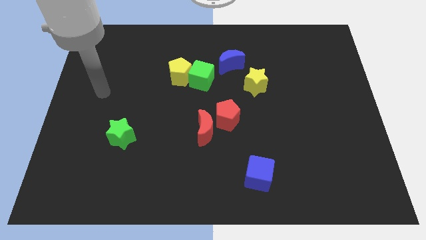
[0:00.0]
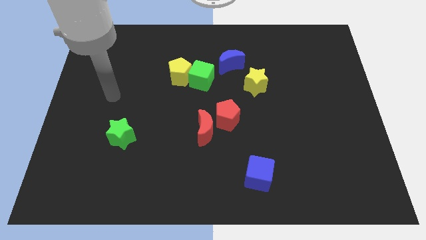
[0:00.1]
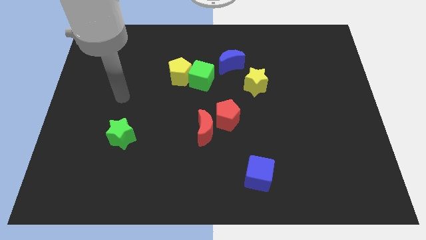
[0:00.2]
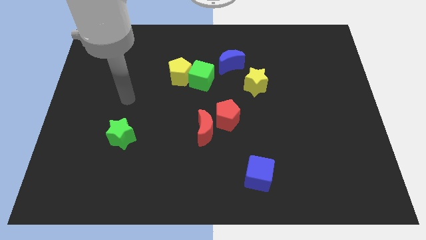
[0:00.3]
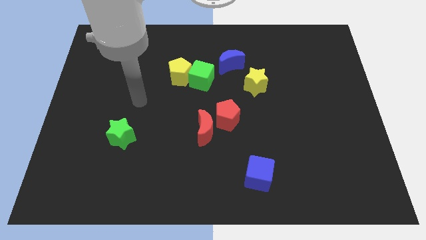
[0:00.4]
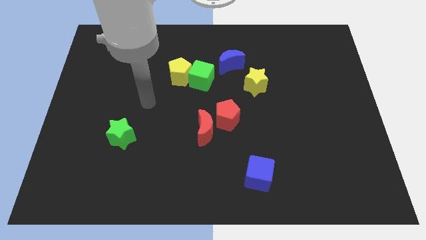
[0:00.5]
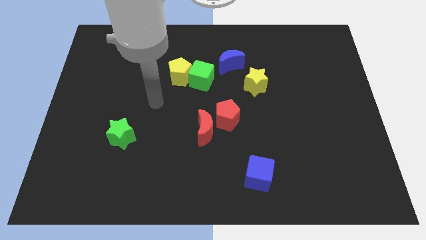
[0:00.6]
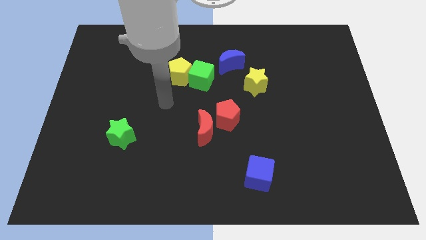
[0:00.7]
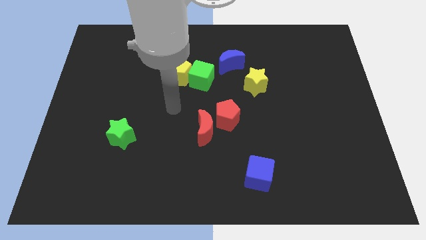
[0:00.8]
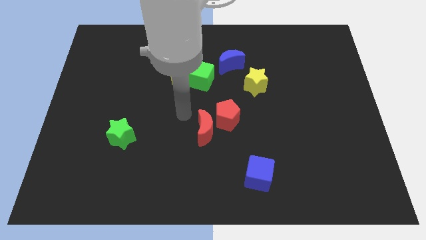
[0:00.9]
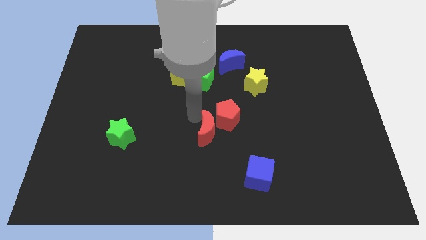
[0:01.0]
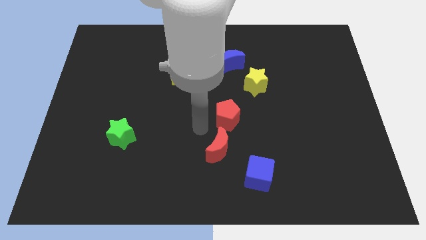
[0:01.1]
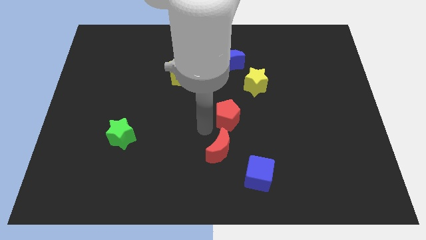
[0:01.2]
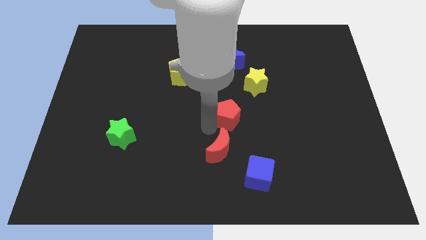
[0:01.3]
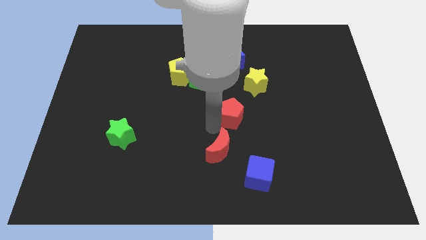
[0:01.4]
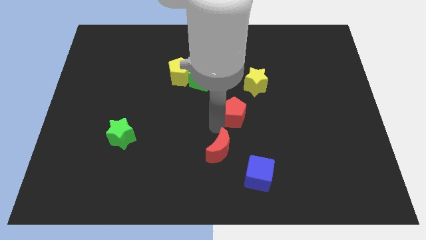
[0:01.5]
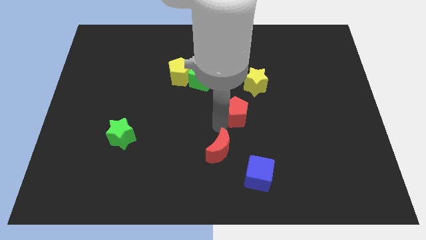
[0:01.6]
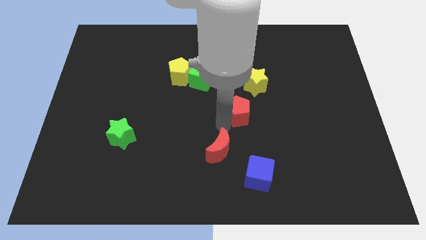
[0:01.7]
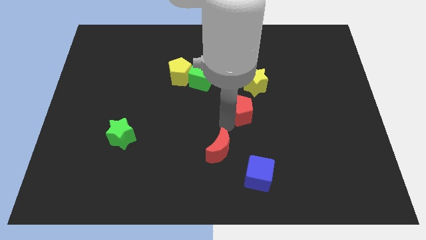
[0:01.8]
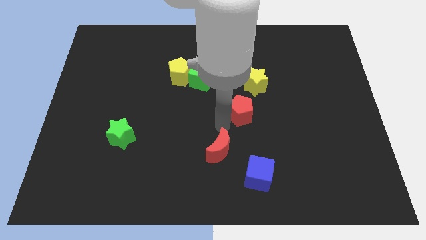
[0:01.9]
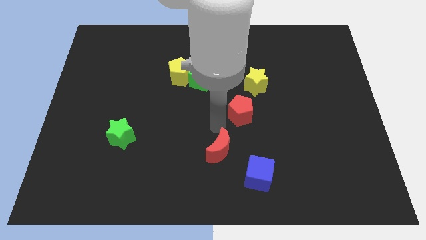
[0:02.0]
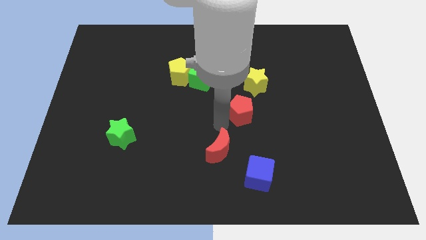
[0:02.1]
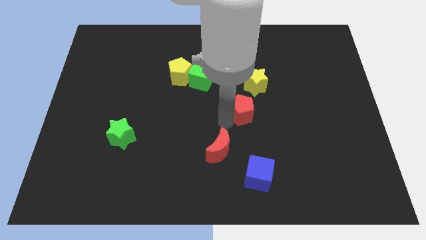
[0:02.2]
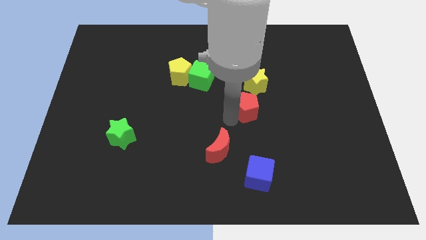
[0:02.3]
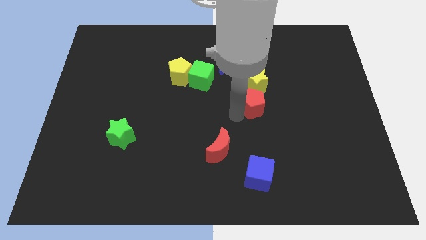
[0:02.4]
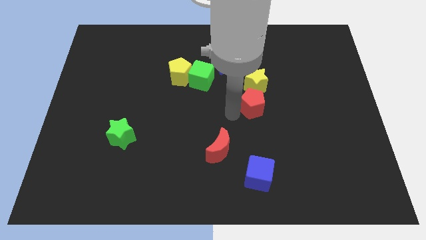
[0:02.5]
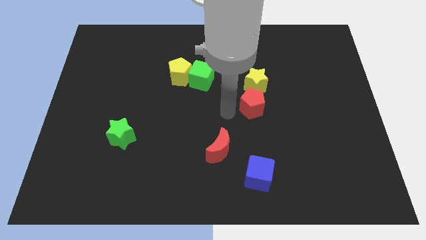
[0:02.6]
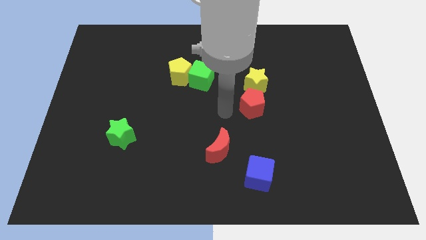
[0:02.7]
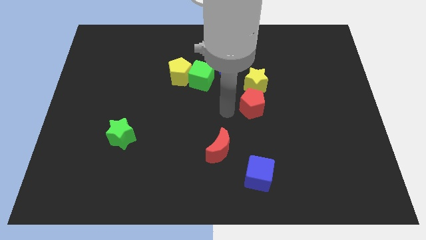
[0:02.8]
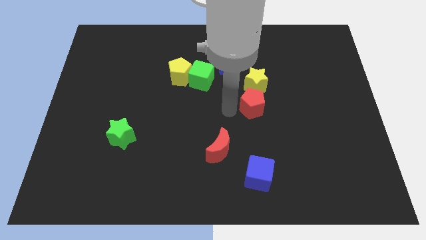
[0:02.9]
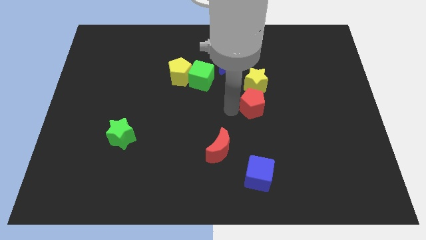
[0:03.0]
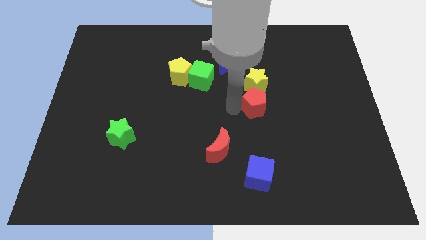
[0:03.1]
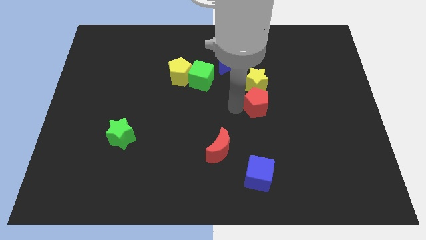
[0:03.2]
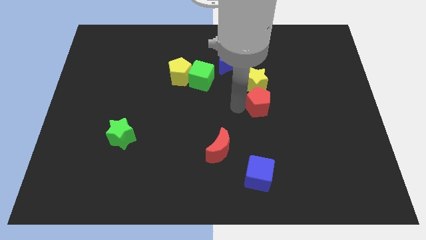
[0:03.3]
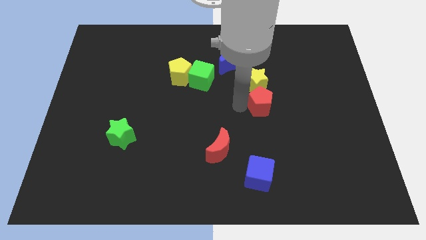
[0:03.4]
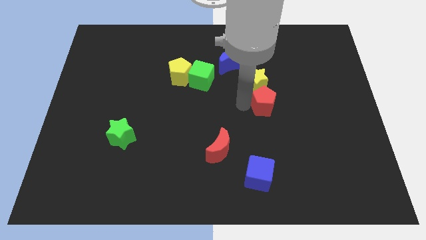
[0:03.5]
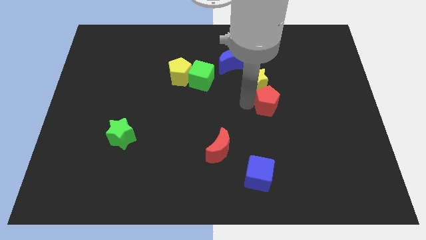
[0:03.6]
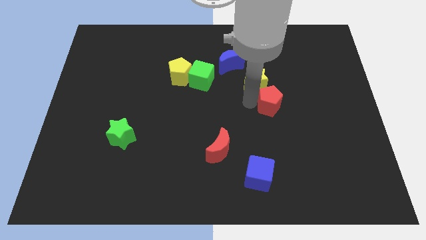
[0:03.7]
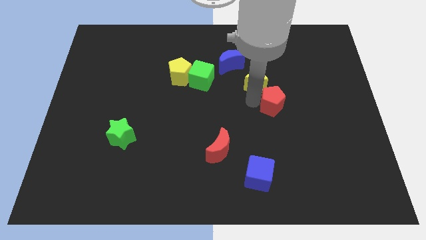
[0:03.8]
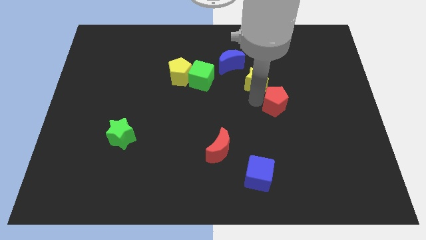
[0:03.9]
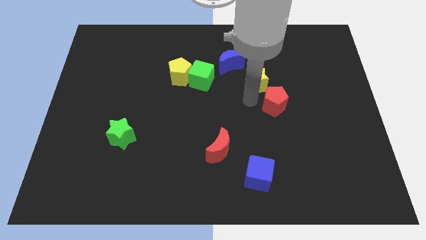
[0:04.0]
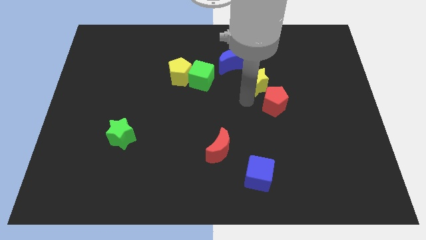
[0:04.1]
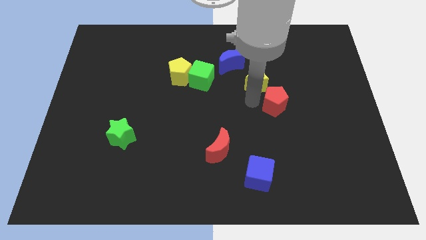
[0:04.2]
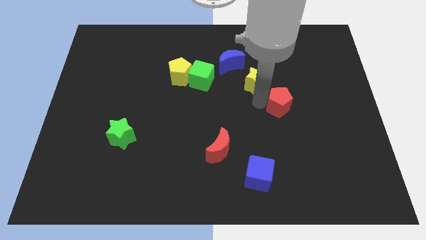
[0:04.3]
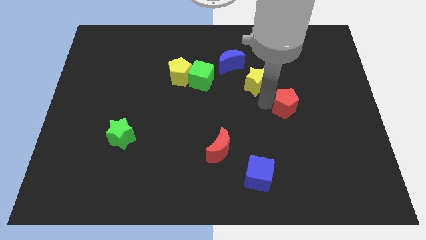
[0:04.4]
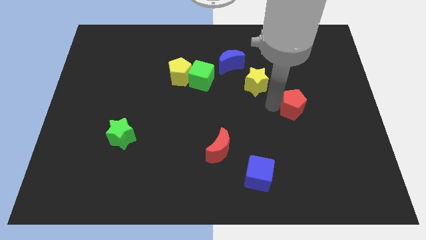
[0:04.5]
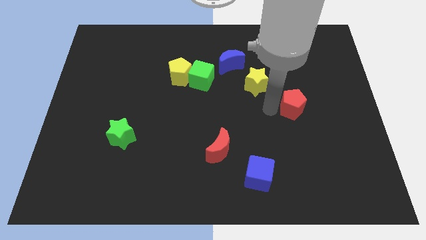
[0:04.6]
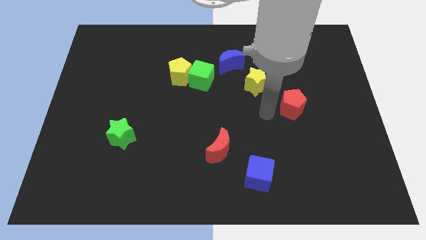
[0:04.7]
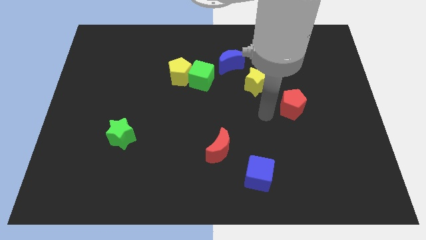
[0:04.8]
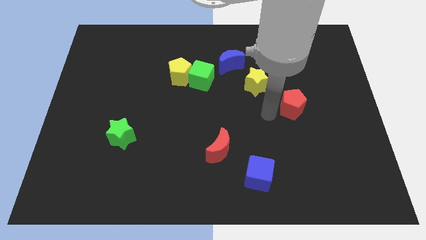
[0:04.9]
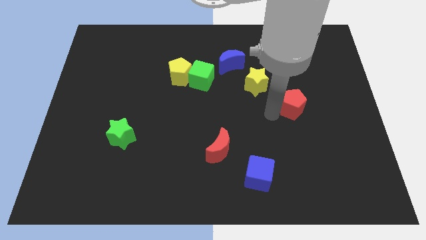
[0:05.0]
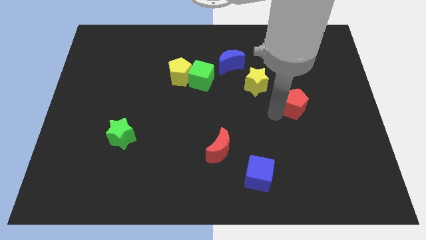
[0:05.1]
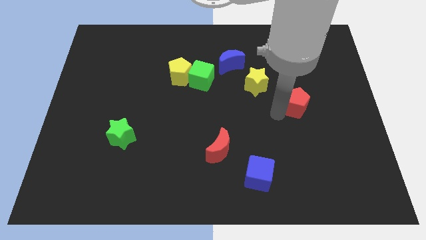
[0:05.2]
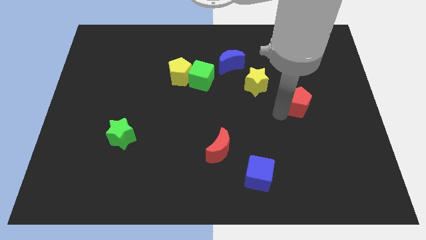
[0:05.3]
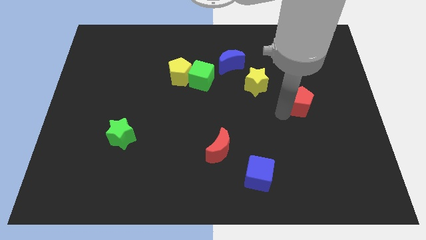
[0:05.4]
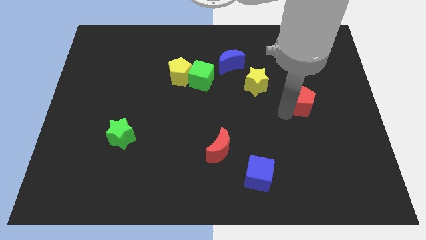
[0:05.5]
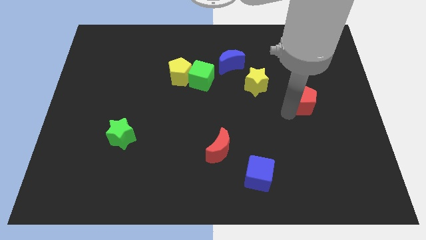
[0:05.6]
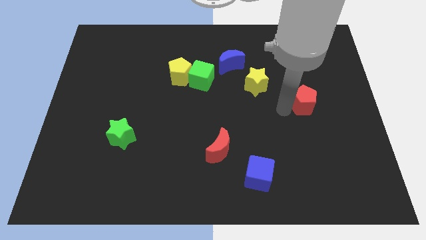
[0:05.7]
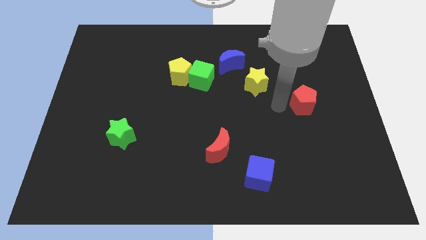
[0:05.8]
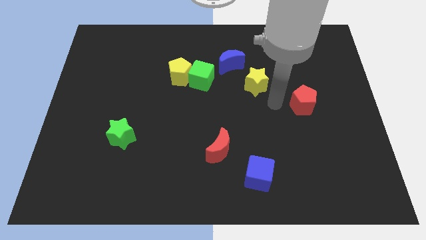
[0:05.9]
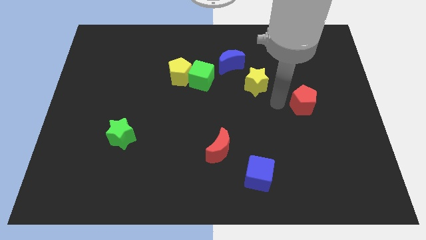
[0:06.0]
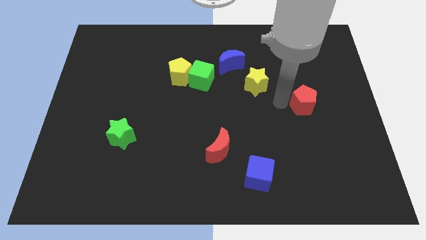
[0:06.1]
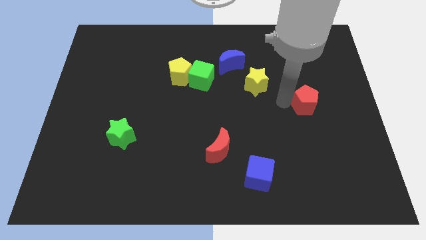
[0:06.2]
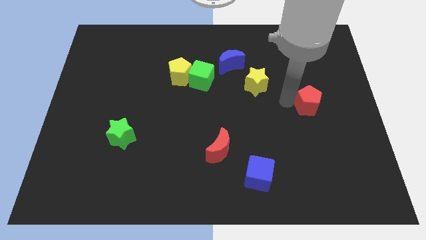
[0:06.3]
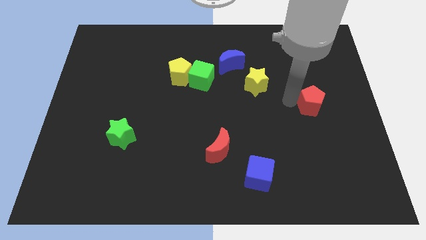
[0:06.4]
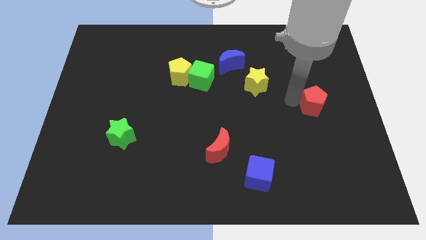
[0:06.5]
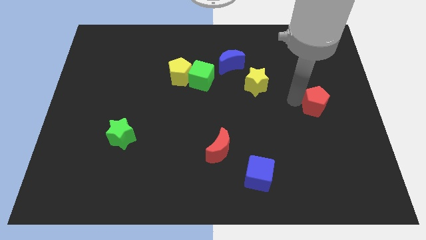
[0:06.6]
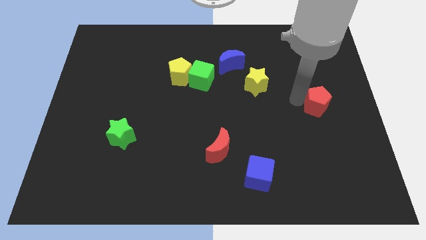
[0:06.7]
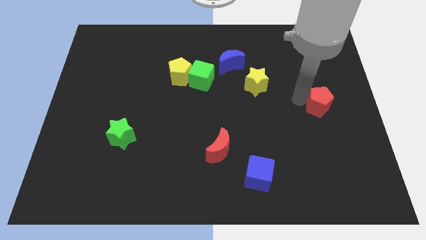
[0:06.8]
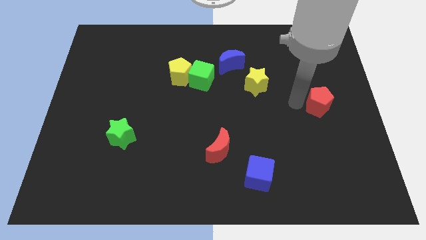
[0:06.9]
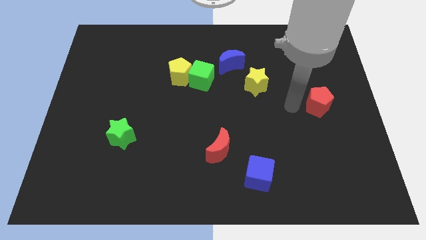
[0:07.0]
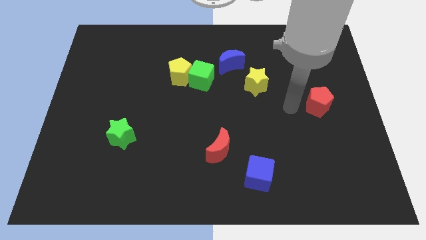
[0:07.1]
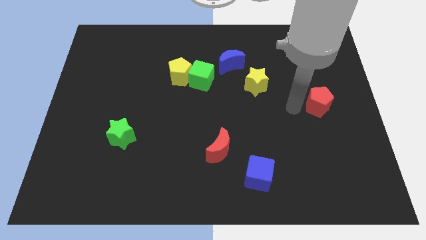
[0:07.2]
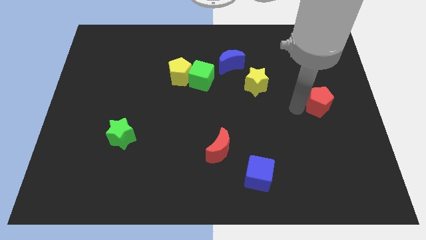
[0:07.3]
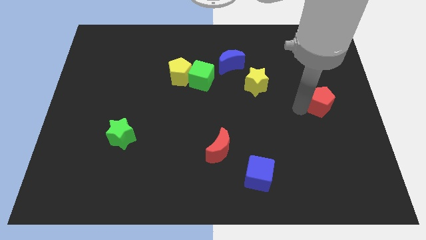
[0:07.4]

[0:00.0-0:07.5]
put the red pentagon to the right side of the board

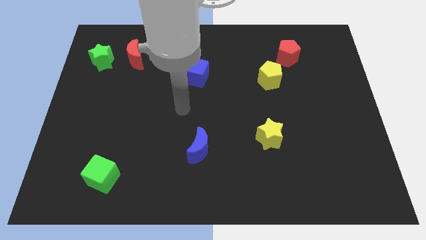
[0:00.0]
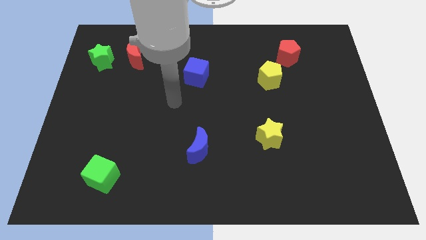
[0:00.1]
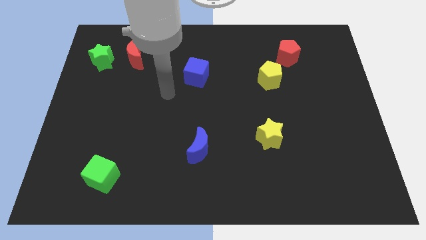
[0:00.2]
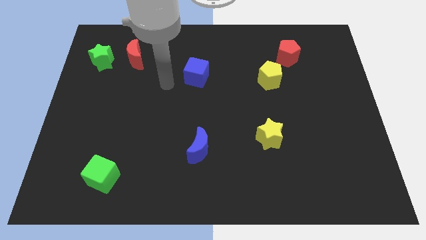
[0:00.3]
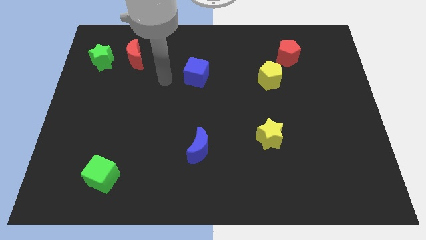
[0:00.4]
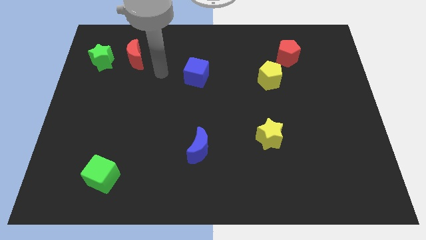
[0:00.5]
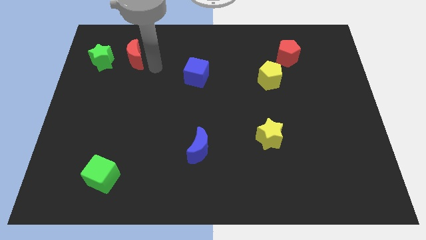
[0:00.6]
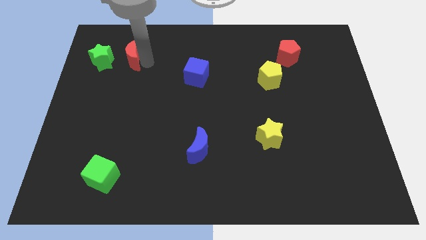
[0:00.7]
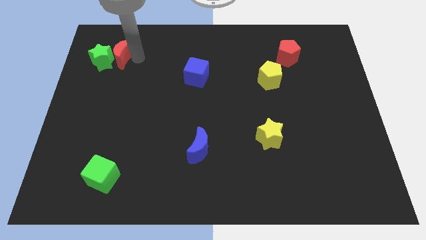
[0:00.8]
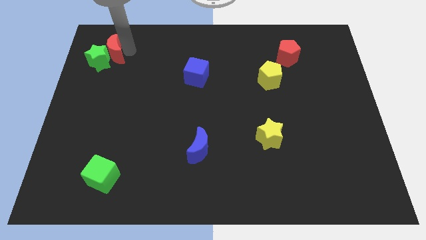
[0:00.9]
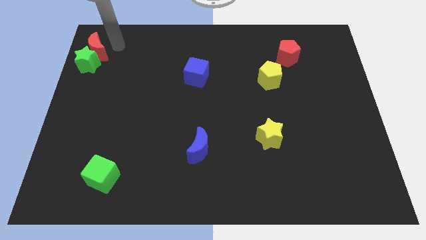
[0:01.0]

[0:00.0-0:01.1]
slide the green star to the center left
